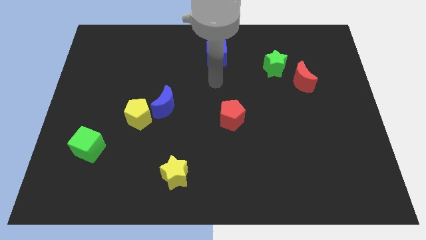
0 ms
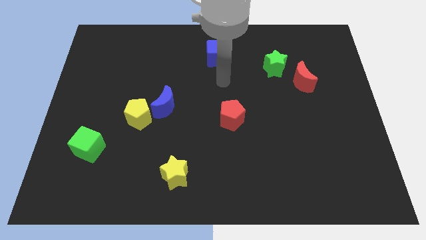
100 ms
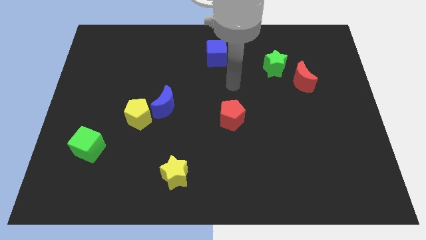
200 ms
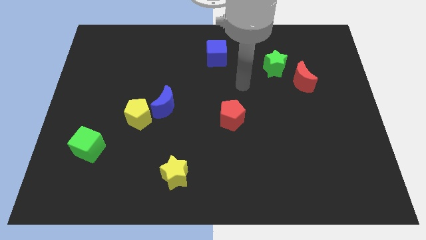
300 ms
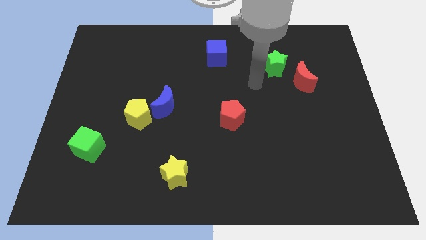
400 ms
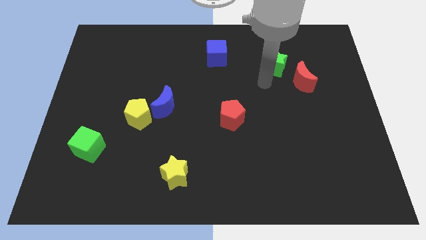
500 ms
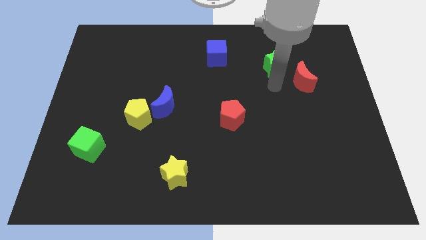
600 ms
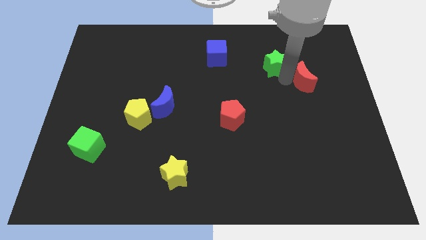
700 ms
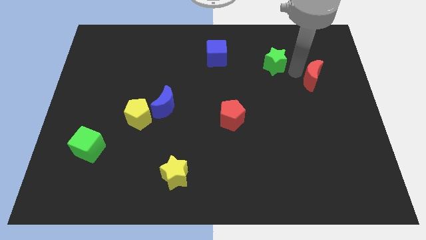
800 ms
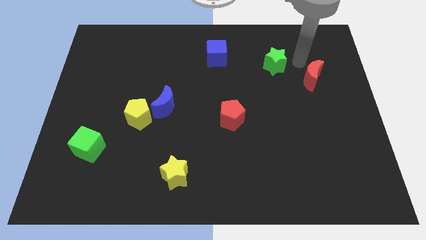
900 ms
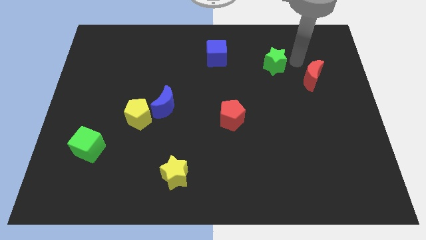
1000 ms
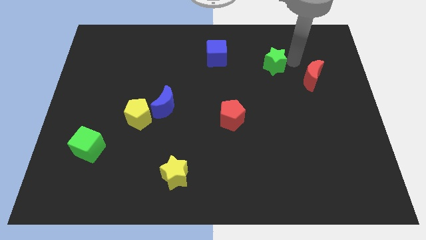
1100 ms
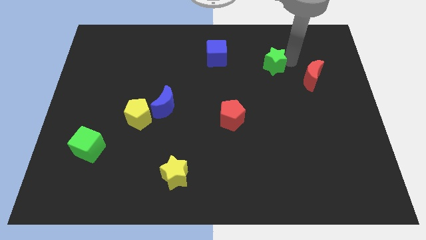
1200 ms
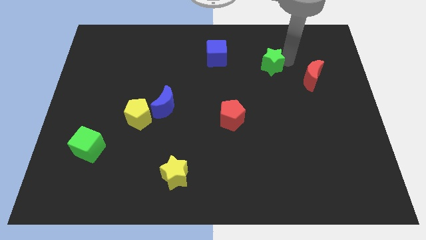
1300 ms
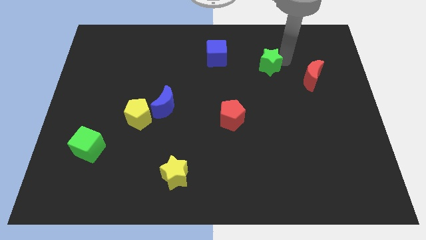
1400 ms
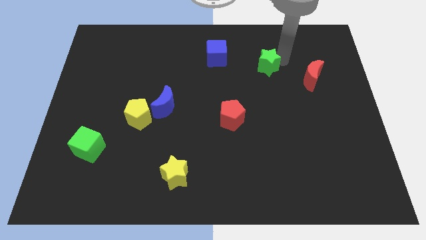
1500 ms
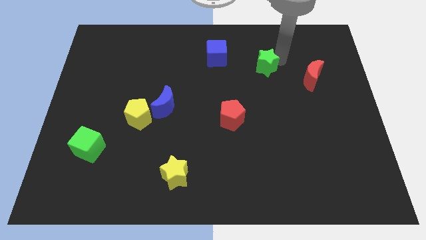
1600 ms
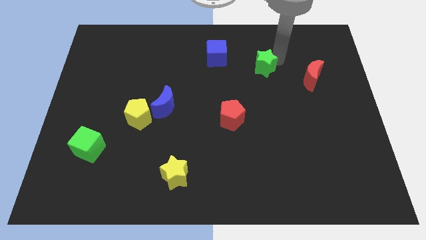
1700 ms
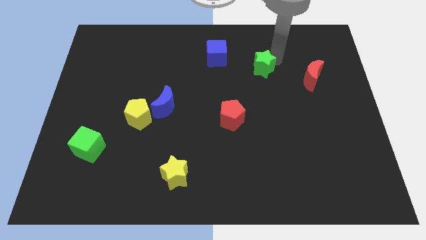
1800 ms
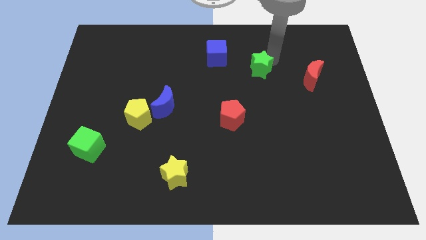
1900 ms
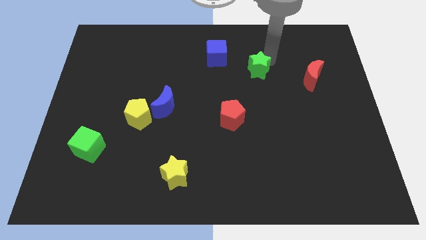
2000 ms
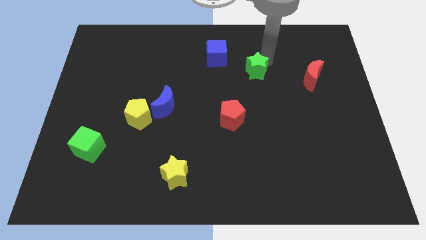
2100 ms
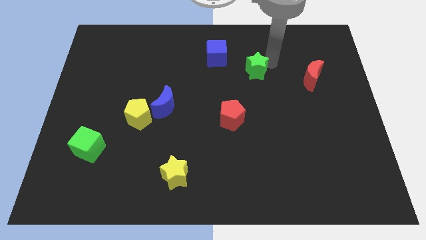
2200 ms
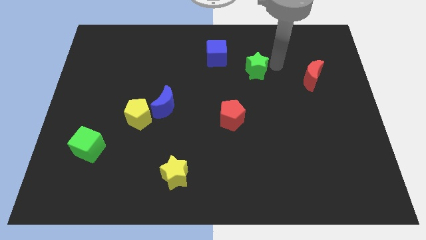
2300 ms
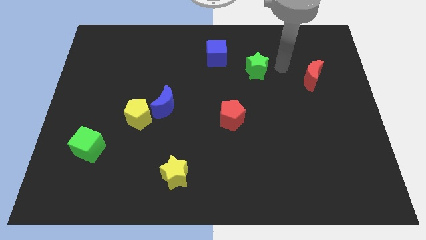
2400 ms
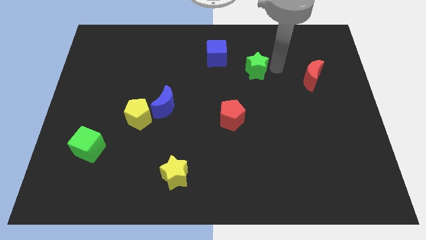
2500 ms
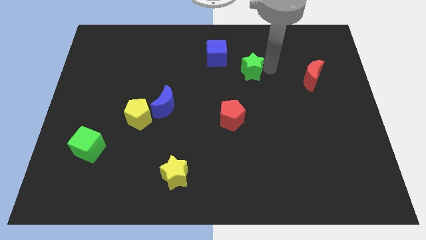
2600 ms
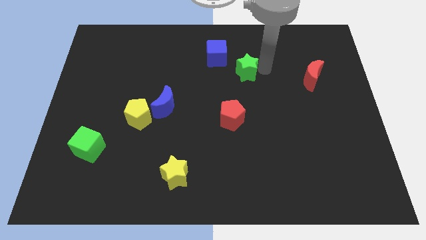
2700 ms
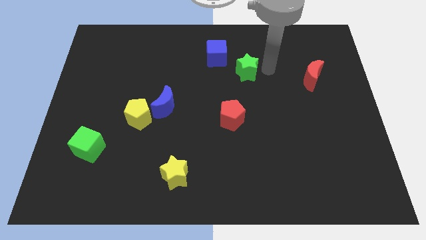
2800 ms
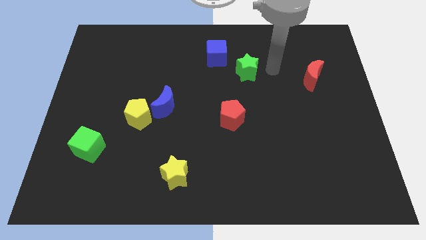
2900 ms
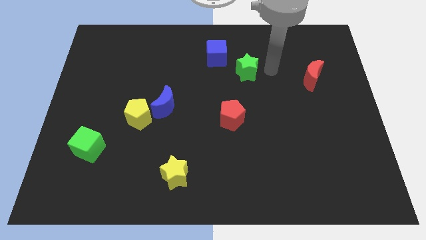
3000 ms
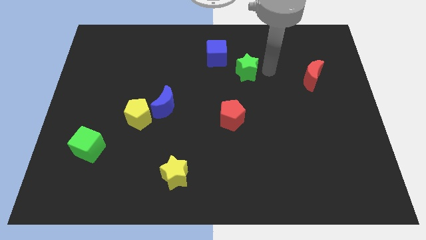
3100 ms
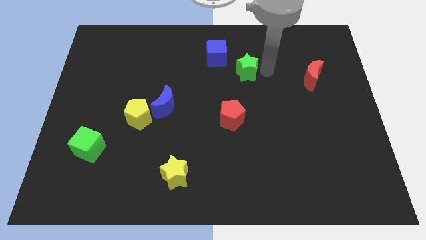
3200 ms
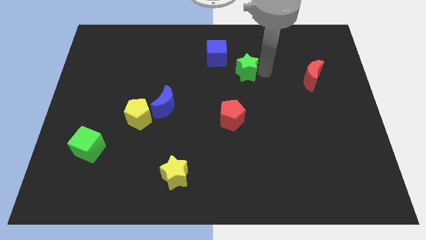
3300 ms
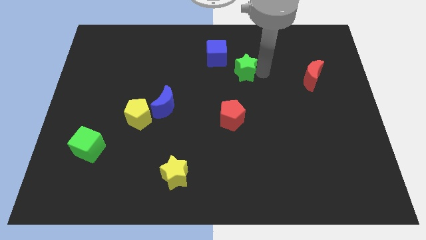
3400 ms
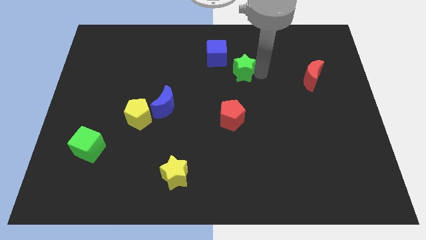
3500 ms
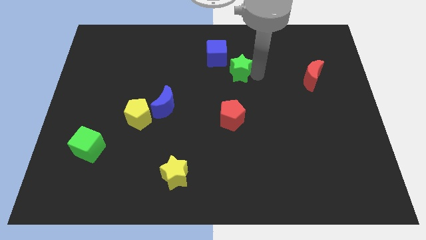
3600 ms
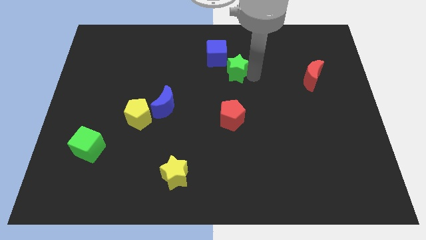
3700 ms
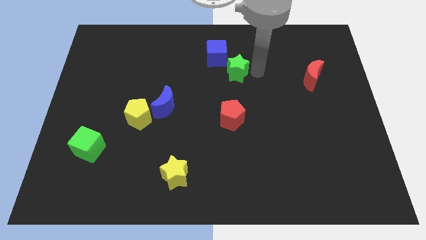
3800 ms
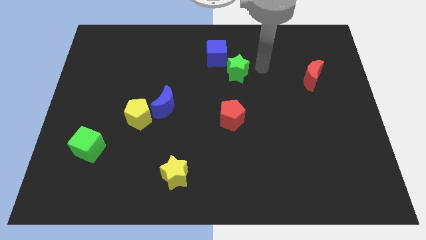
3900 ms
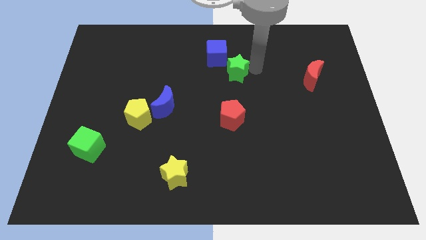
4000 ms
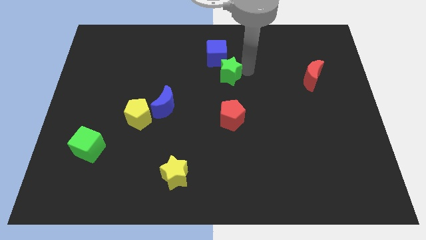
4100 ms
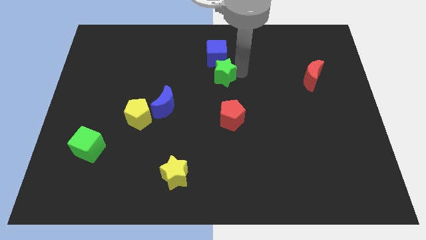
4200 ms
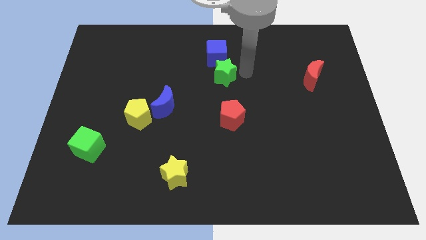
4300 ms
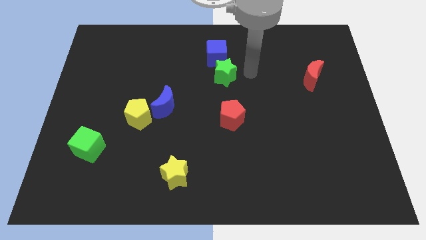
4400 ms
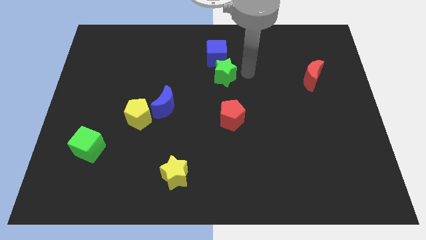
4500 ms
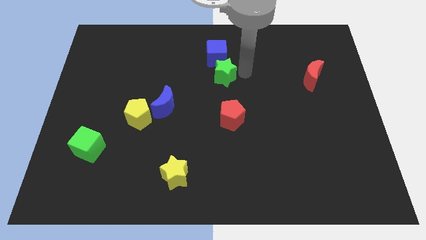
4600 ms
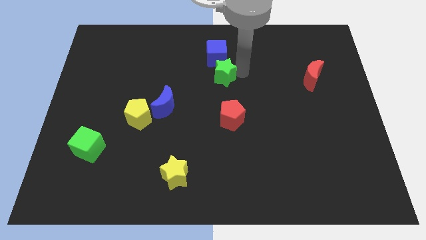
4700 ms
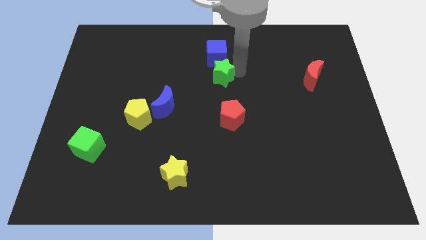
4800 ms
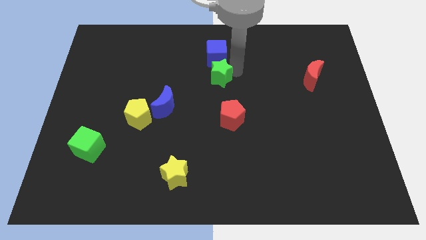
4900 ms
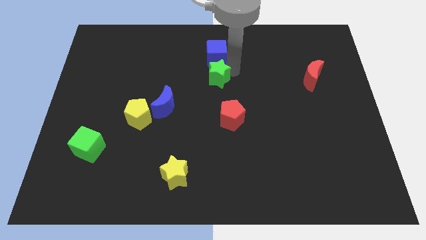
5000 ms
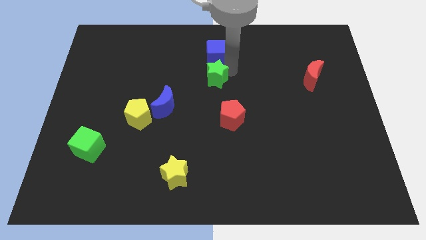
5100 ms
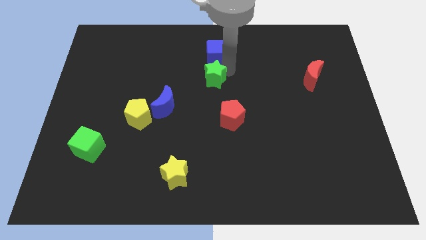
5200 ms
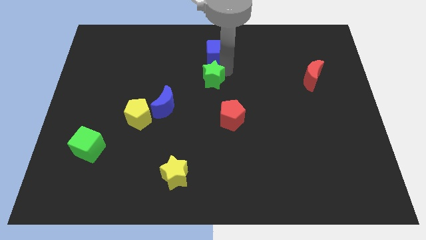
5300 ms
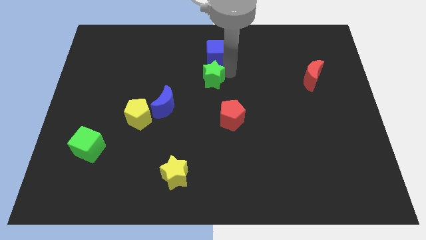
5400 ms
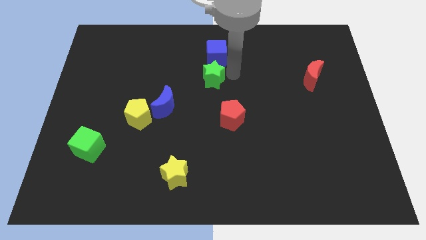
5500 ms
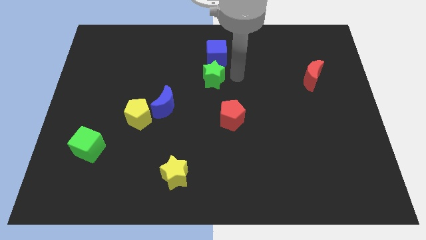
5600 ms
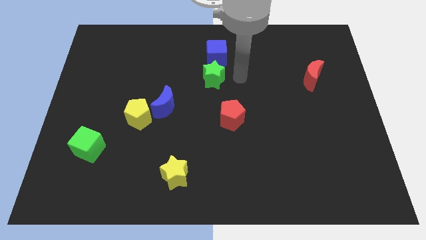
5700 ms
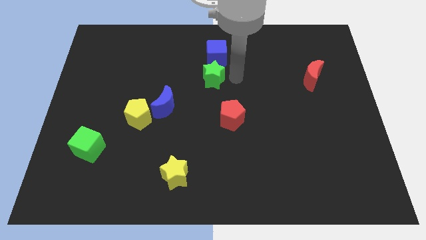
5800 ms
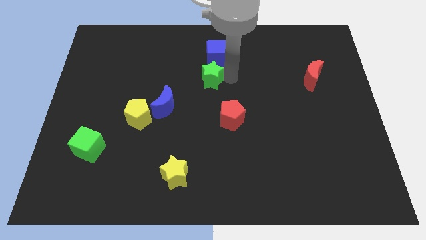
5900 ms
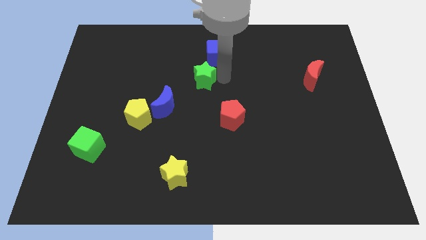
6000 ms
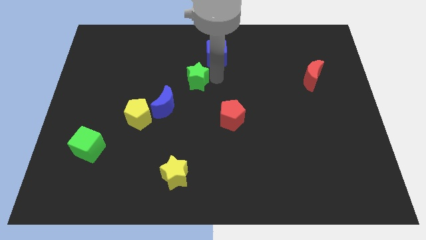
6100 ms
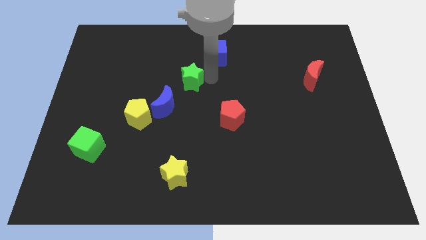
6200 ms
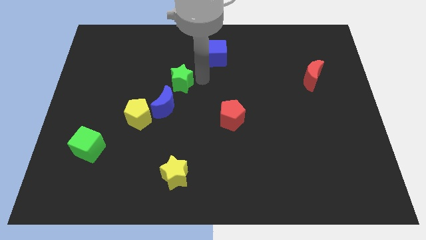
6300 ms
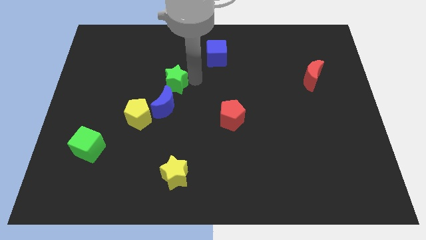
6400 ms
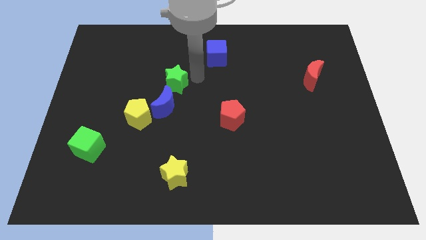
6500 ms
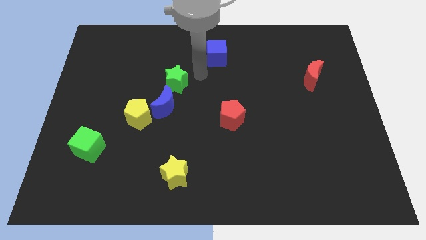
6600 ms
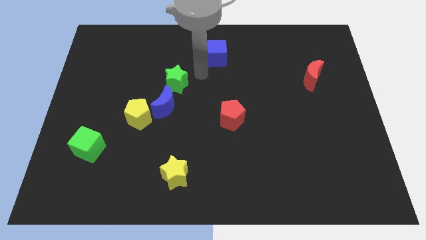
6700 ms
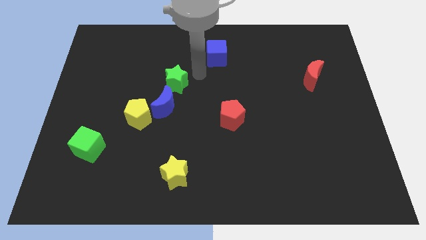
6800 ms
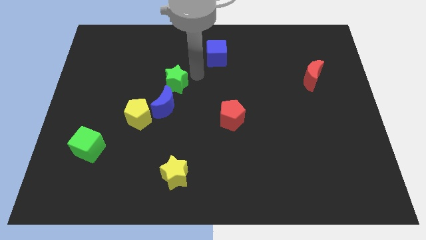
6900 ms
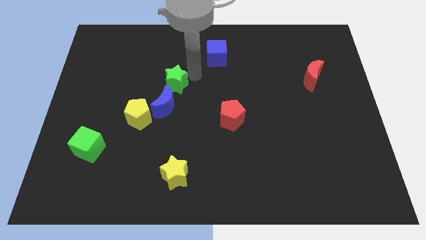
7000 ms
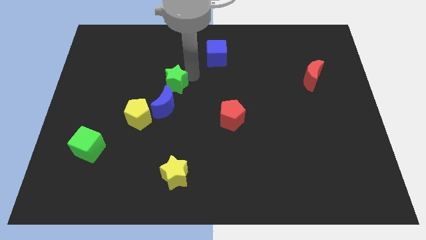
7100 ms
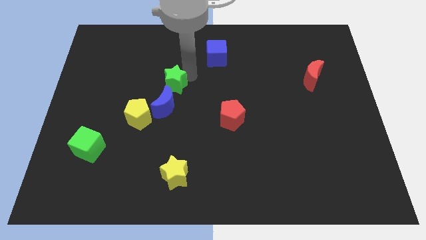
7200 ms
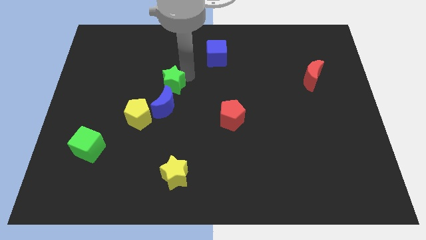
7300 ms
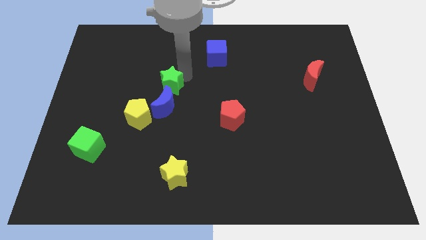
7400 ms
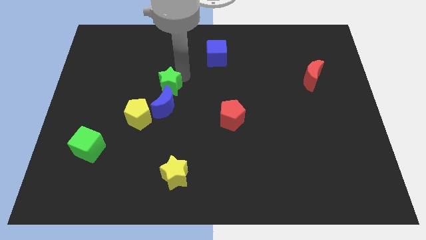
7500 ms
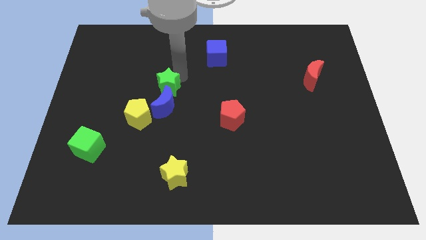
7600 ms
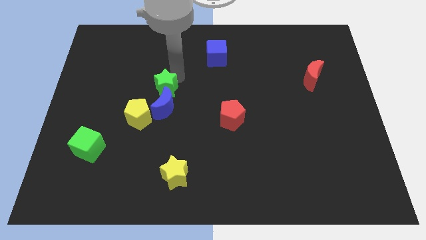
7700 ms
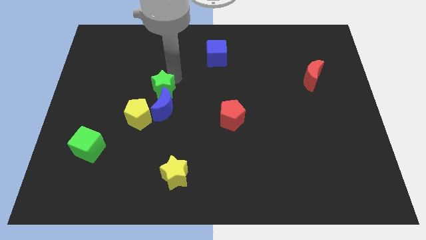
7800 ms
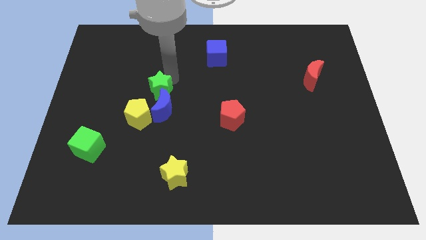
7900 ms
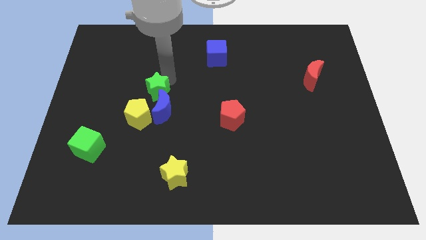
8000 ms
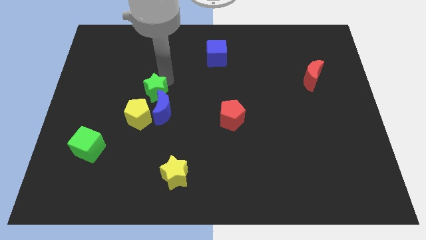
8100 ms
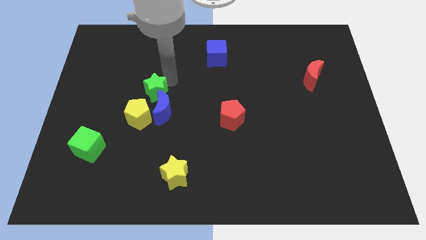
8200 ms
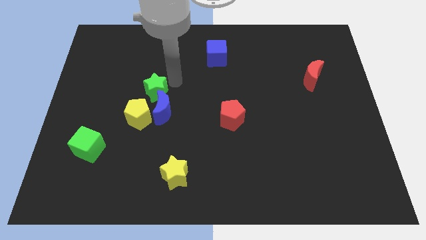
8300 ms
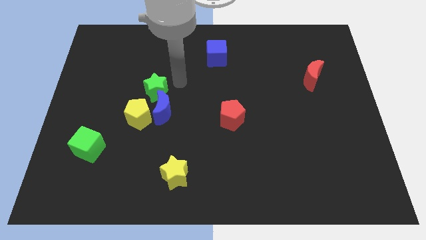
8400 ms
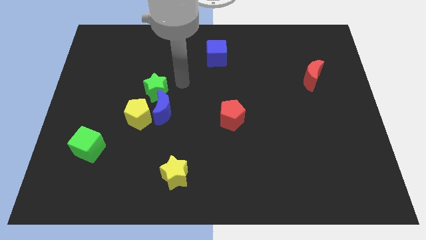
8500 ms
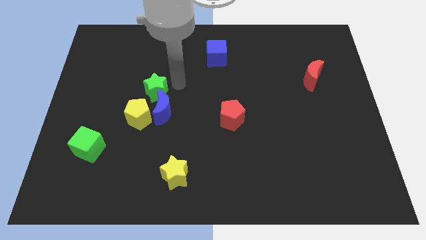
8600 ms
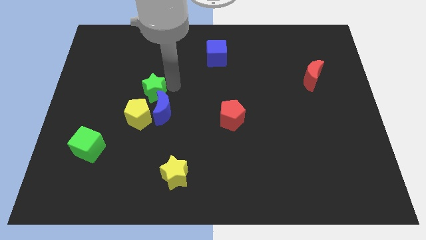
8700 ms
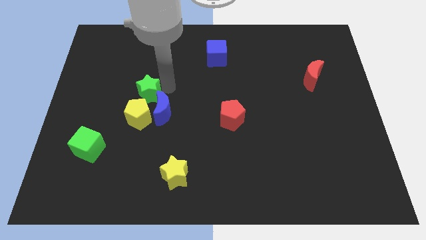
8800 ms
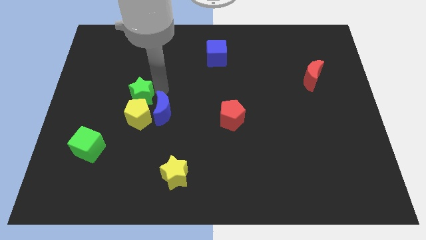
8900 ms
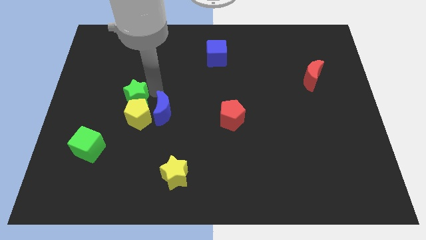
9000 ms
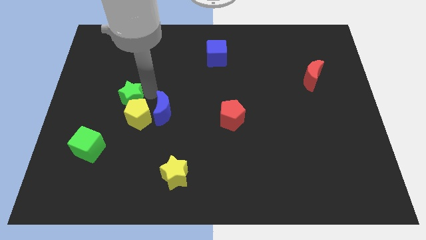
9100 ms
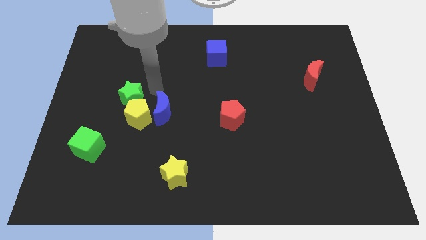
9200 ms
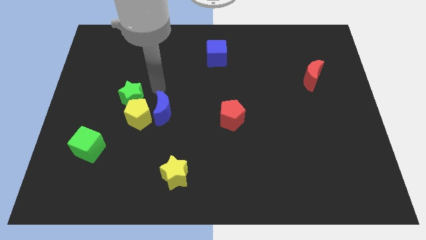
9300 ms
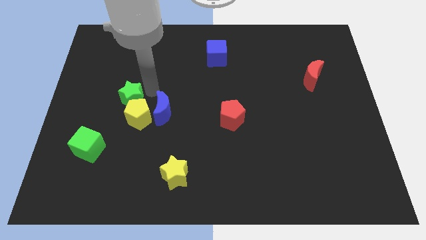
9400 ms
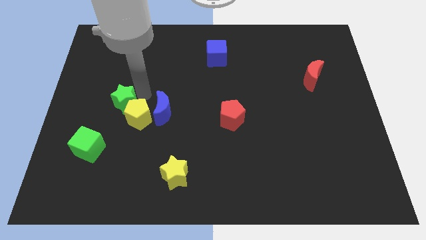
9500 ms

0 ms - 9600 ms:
push the green star to the left side of the yellow pentagon
